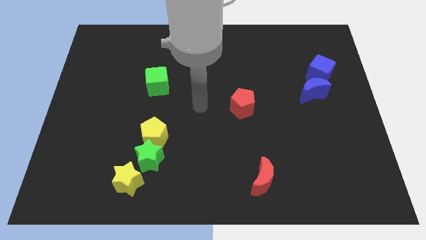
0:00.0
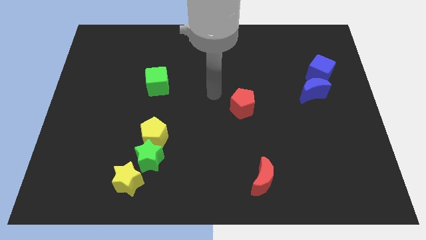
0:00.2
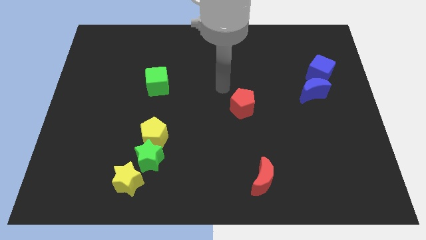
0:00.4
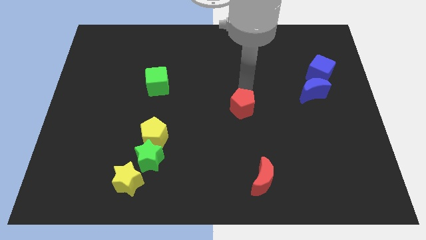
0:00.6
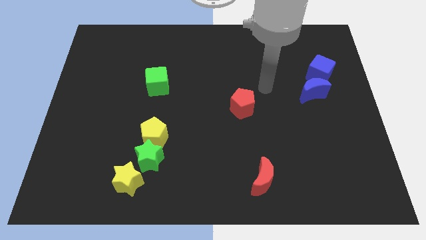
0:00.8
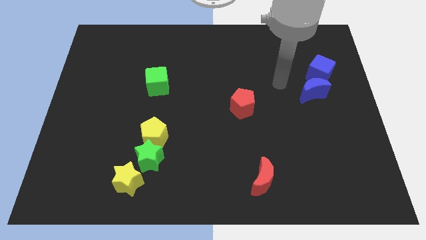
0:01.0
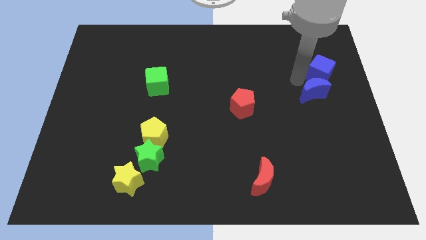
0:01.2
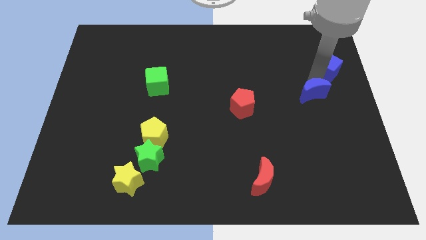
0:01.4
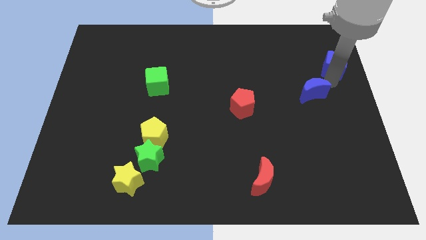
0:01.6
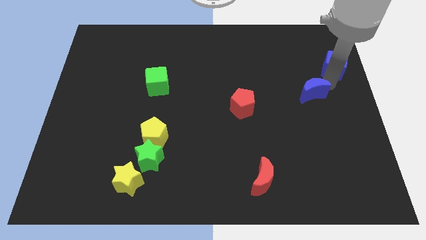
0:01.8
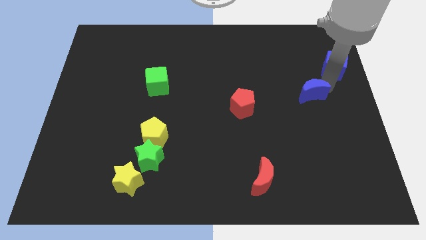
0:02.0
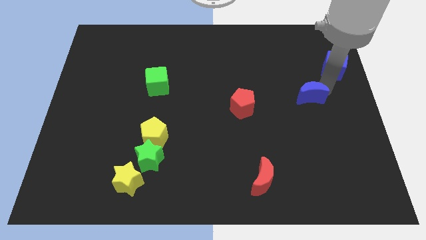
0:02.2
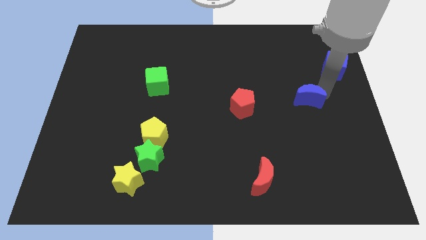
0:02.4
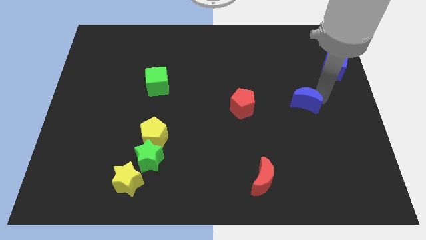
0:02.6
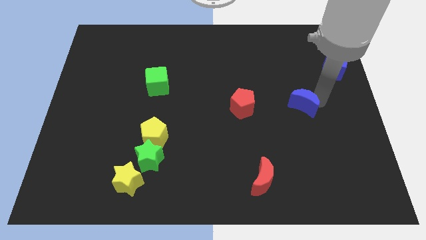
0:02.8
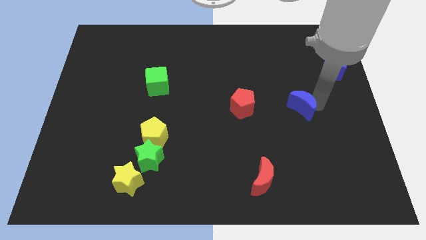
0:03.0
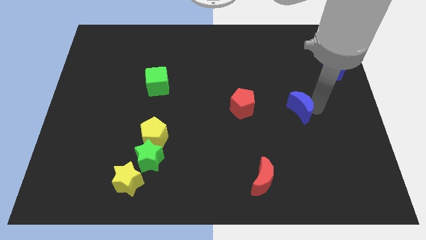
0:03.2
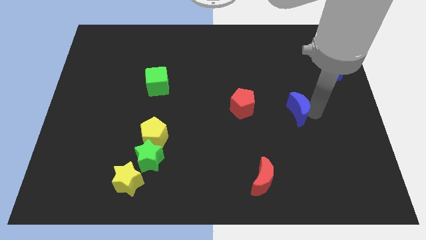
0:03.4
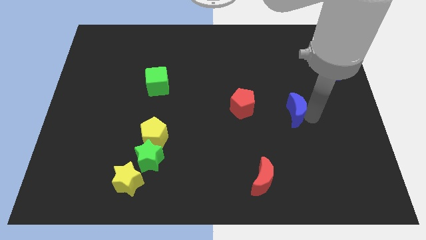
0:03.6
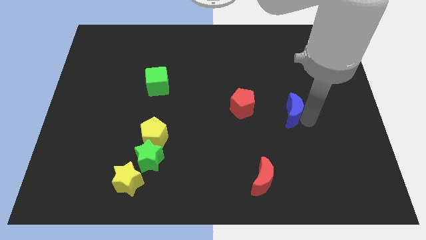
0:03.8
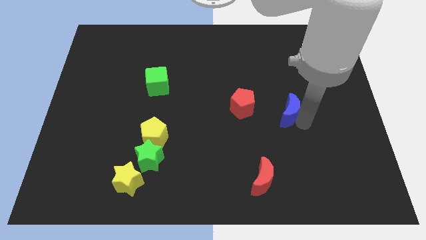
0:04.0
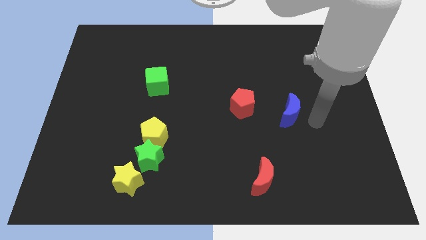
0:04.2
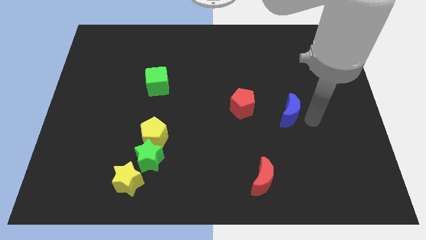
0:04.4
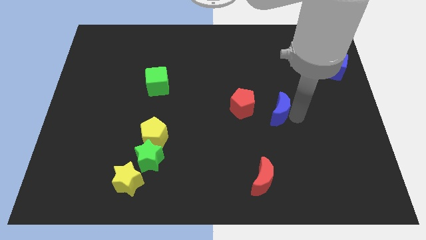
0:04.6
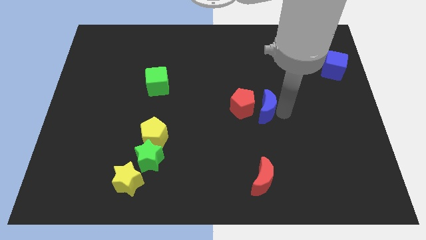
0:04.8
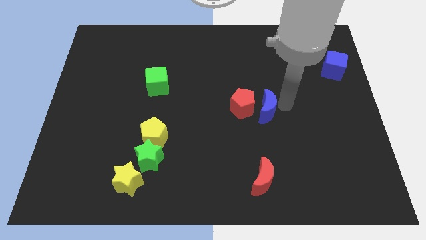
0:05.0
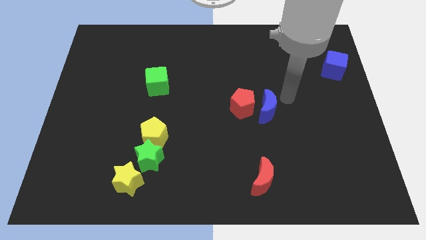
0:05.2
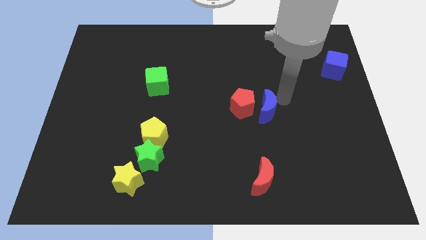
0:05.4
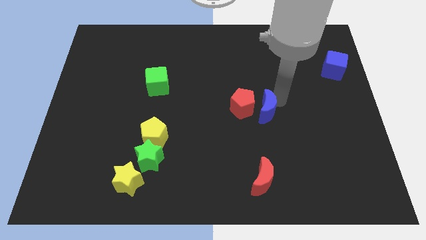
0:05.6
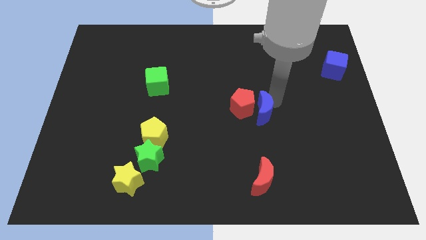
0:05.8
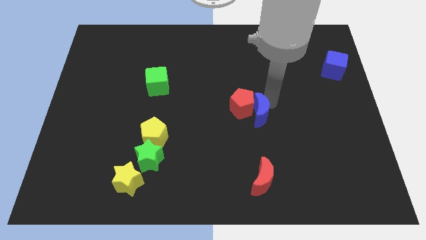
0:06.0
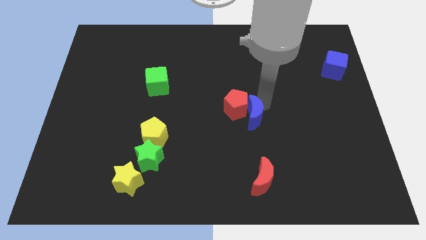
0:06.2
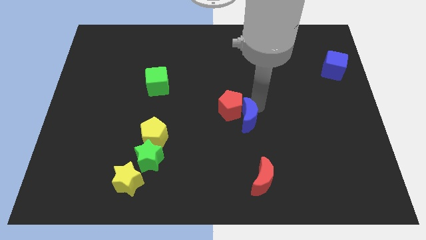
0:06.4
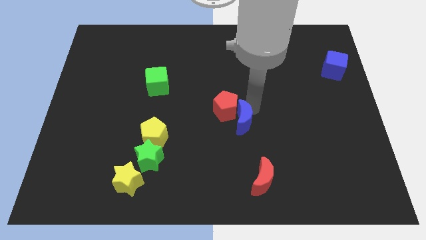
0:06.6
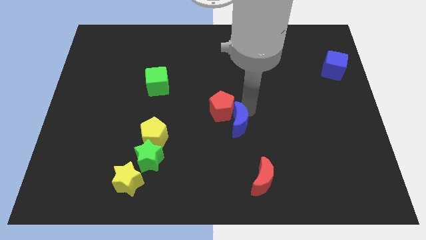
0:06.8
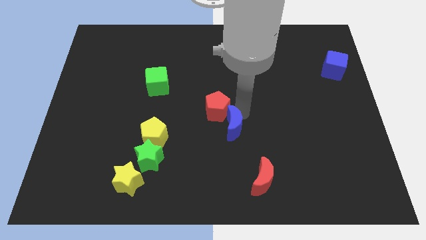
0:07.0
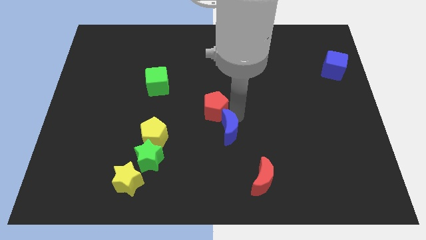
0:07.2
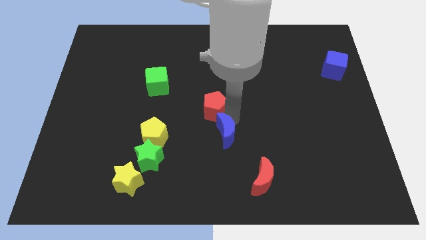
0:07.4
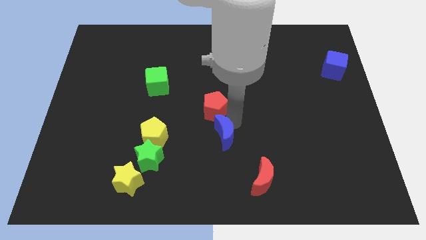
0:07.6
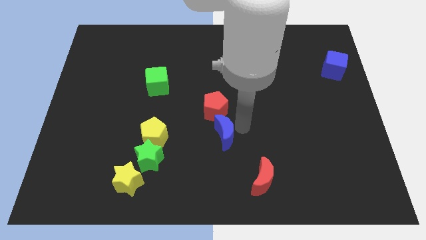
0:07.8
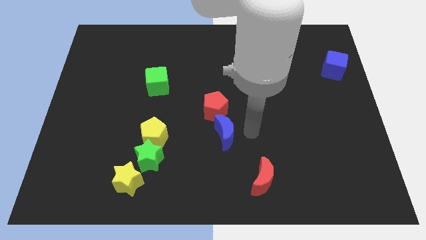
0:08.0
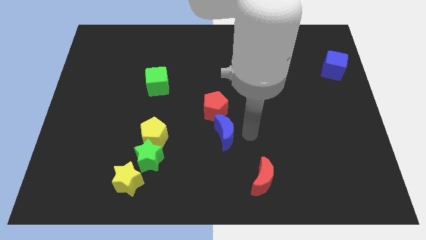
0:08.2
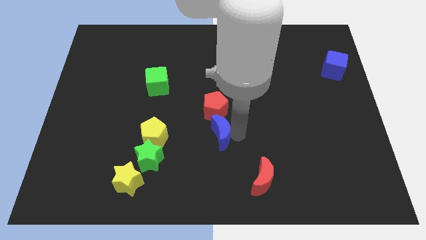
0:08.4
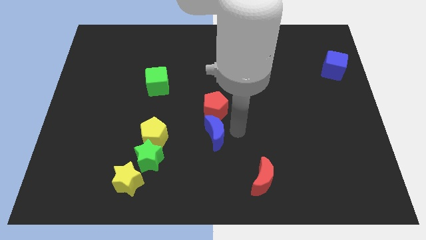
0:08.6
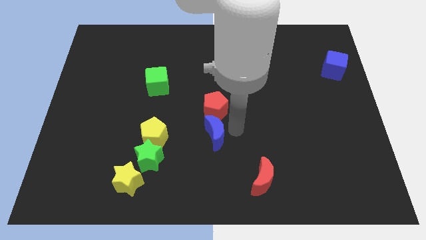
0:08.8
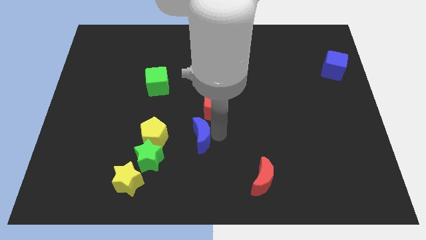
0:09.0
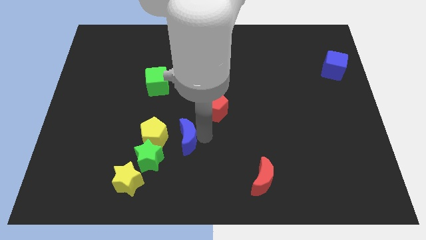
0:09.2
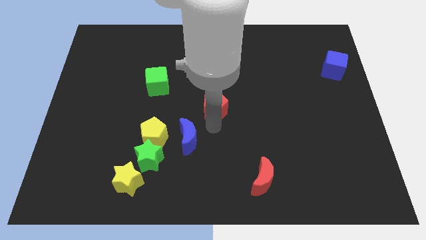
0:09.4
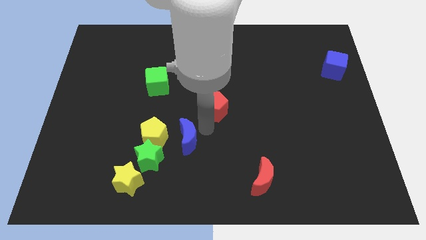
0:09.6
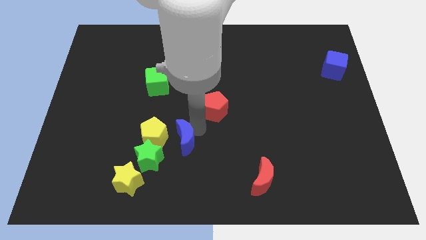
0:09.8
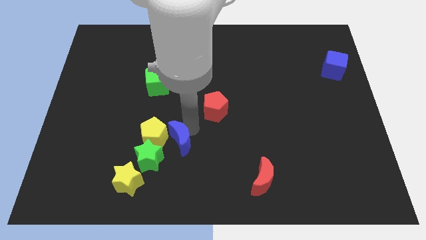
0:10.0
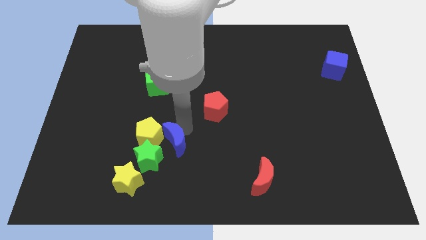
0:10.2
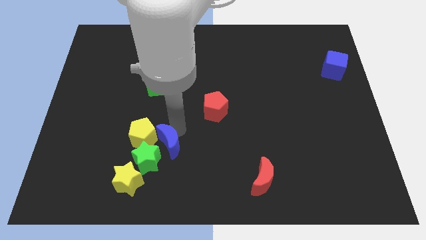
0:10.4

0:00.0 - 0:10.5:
move the blue moon towards the green star

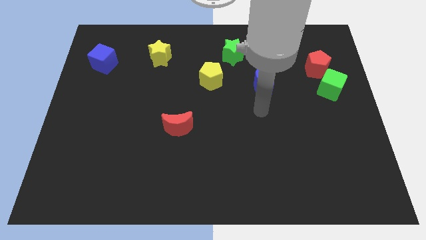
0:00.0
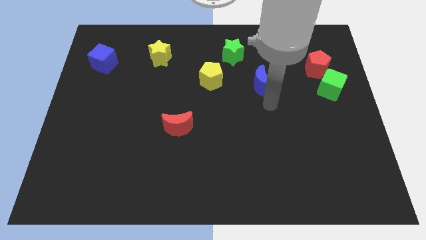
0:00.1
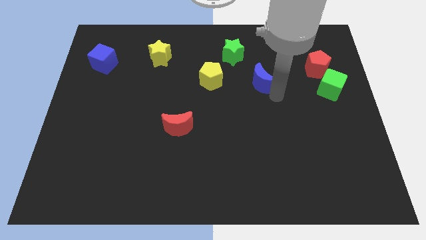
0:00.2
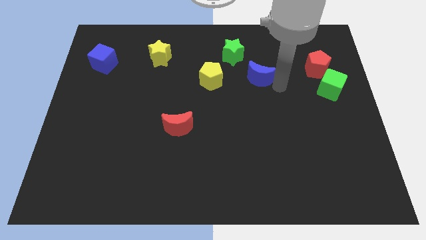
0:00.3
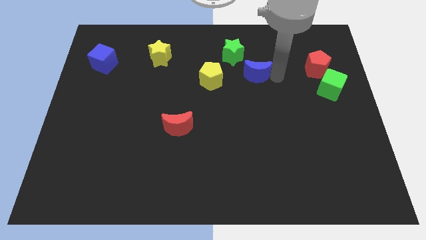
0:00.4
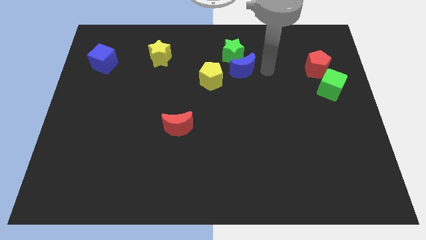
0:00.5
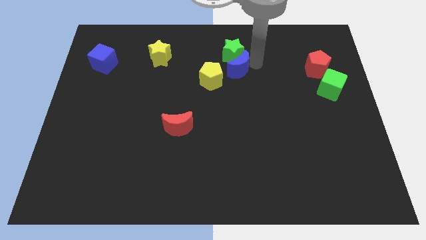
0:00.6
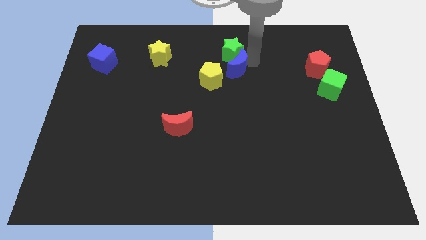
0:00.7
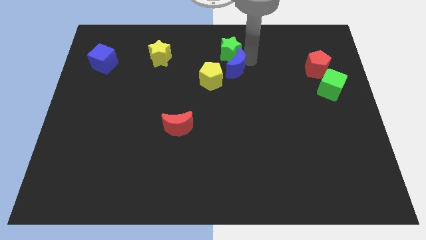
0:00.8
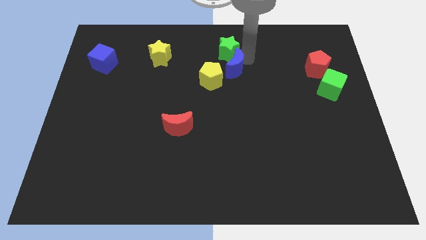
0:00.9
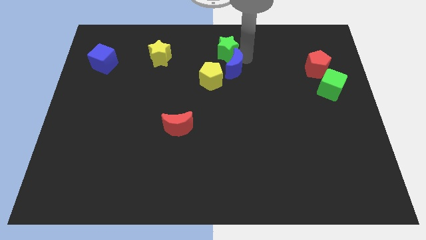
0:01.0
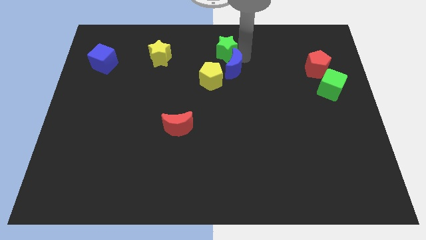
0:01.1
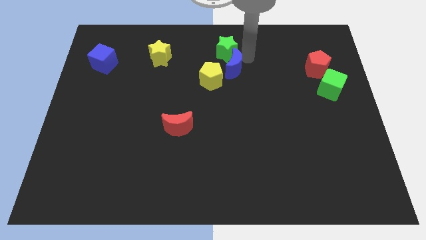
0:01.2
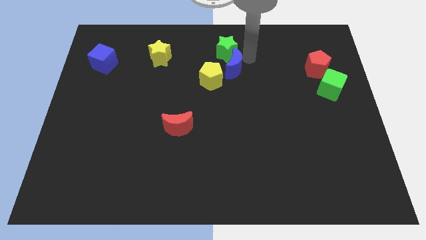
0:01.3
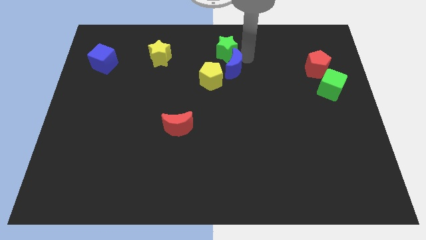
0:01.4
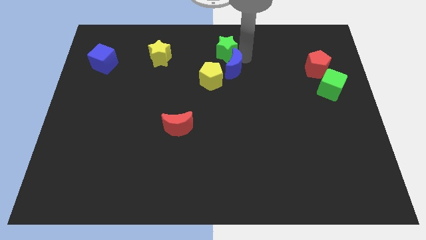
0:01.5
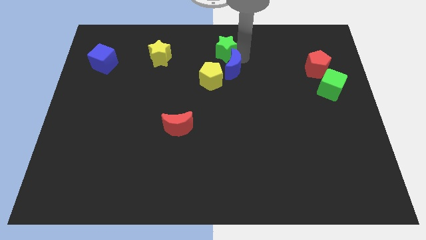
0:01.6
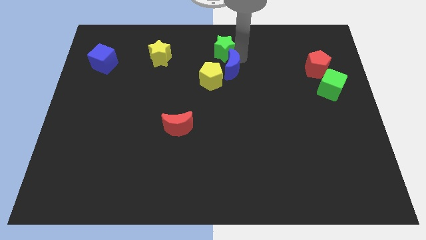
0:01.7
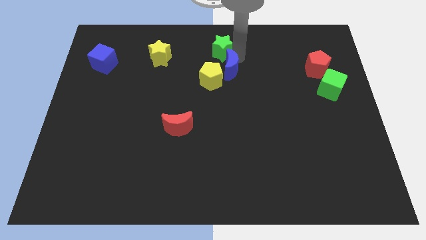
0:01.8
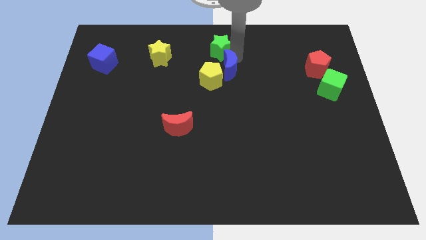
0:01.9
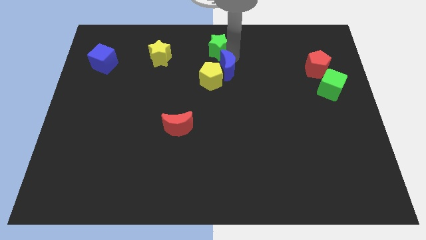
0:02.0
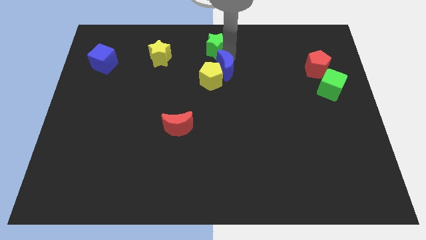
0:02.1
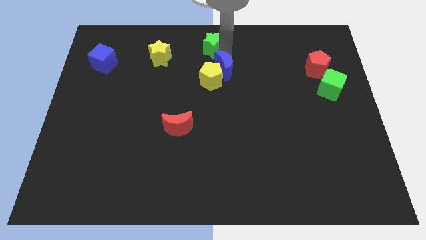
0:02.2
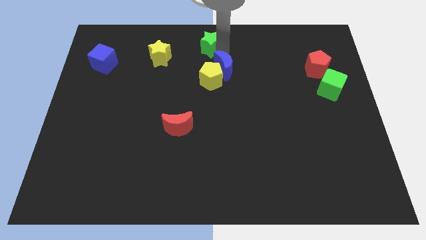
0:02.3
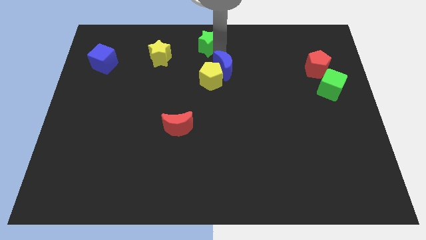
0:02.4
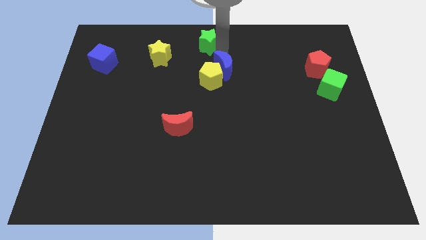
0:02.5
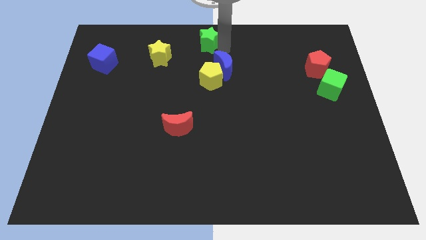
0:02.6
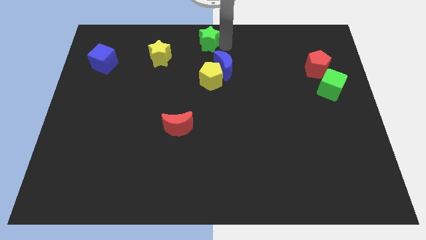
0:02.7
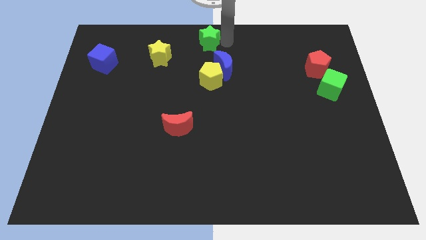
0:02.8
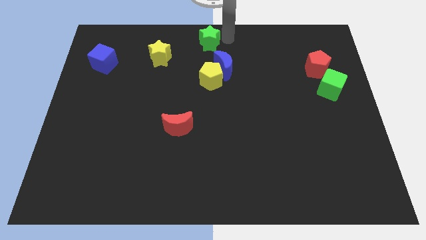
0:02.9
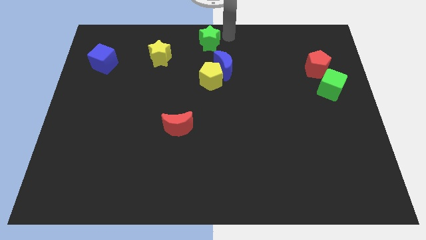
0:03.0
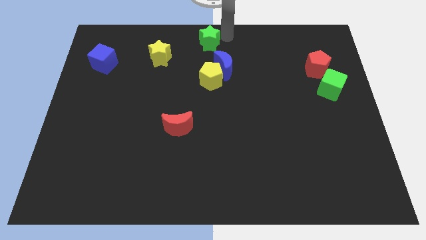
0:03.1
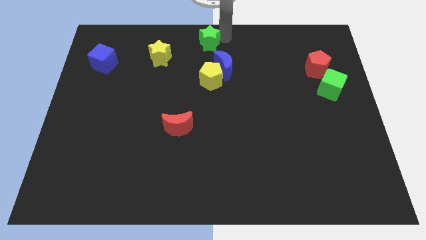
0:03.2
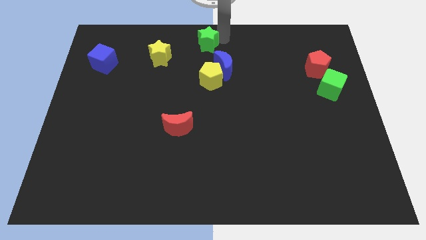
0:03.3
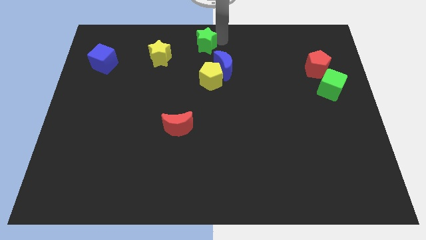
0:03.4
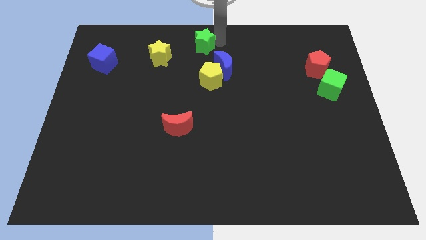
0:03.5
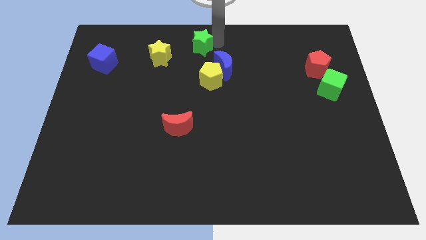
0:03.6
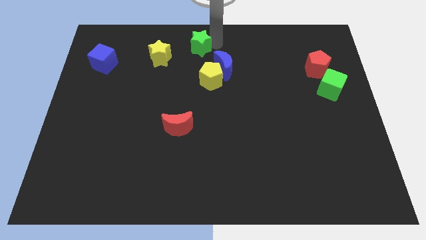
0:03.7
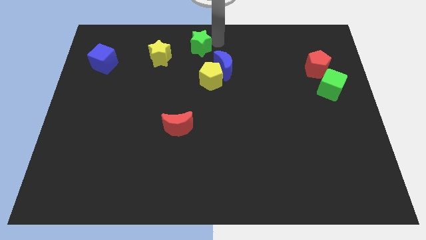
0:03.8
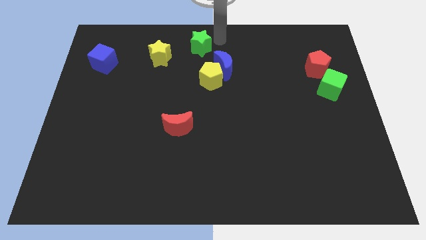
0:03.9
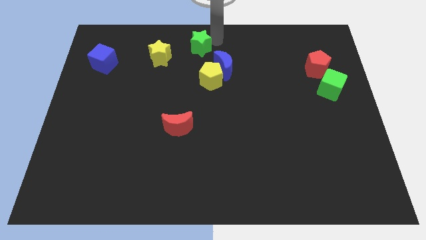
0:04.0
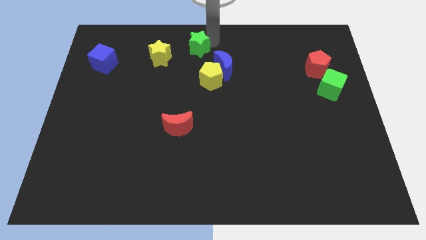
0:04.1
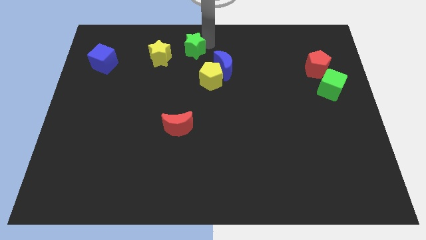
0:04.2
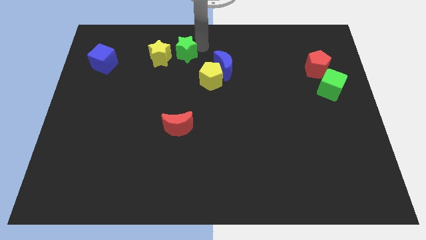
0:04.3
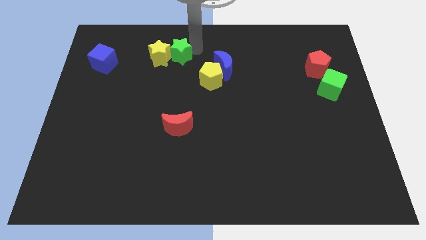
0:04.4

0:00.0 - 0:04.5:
push the green star next to the yellow star
